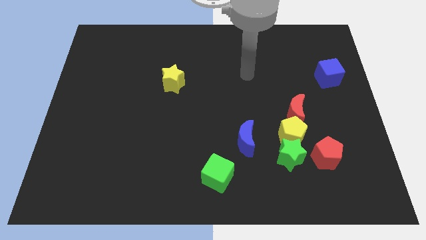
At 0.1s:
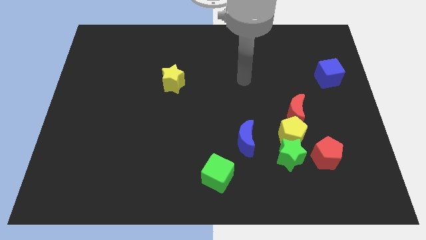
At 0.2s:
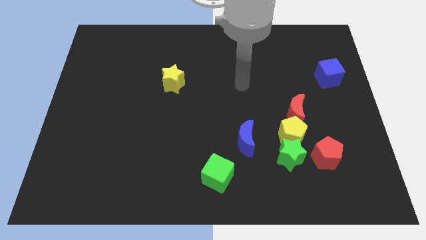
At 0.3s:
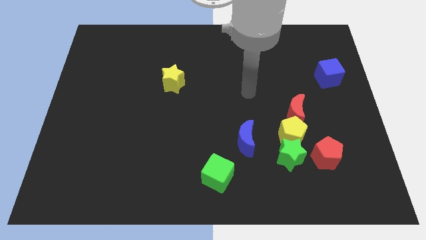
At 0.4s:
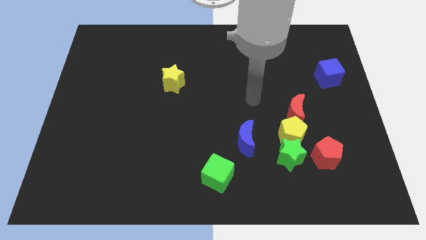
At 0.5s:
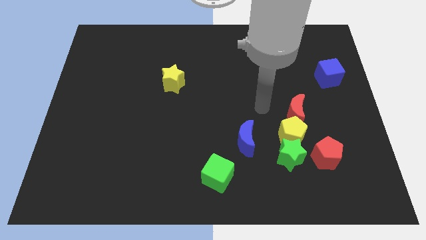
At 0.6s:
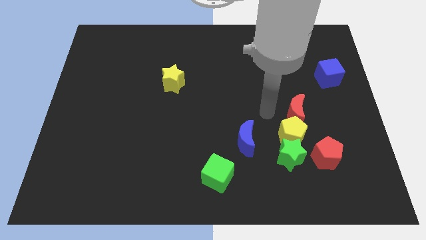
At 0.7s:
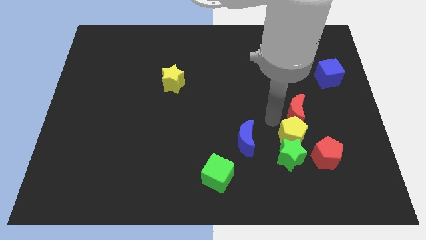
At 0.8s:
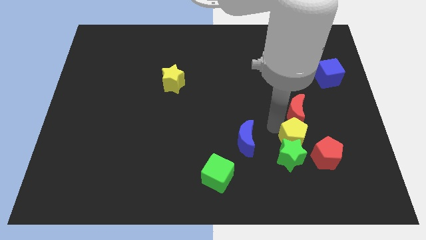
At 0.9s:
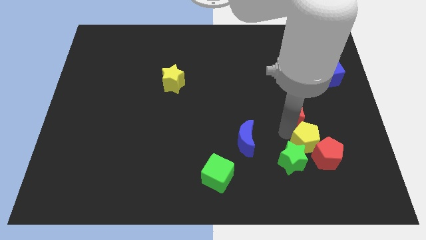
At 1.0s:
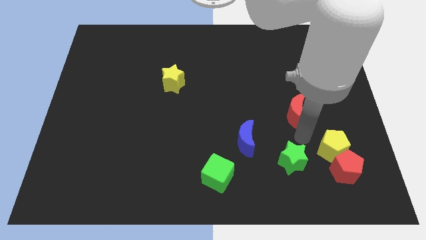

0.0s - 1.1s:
separate the red moon from the yellow pentagon

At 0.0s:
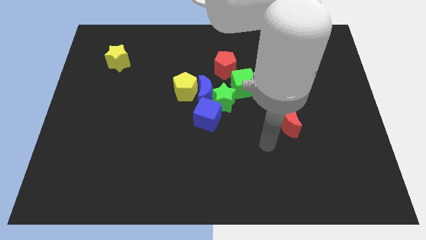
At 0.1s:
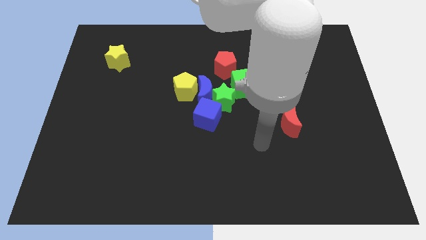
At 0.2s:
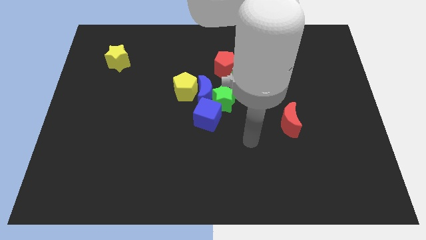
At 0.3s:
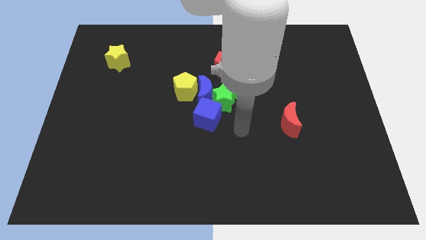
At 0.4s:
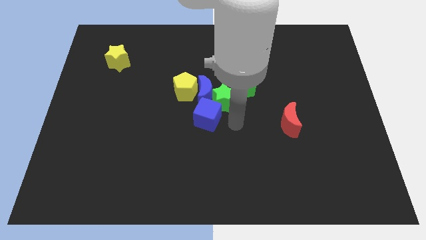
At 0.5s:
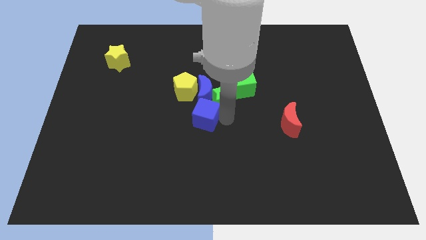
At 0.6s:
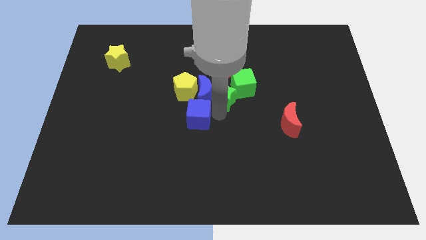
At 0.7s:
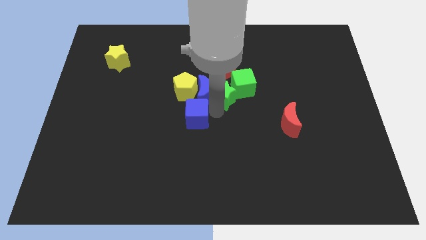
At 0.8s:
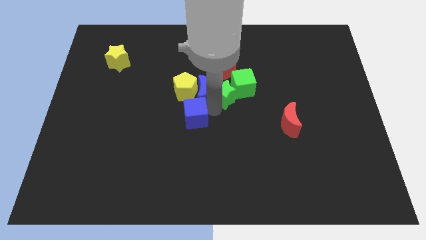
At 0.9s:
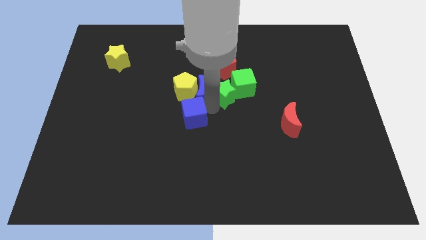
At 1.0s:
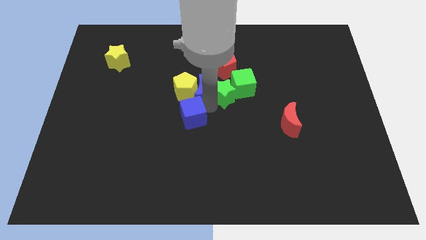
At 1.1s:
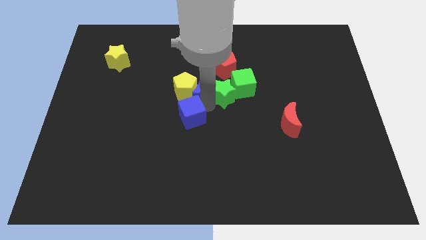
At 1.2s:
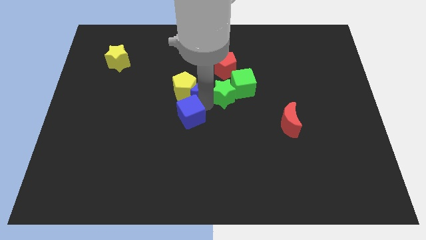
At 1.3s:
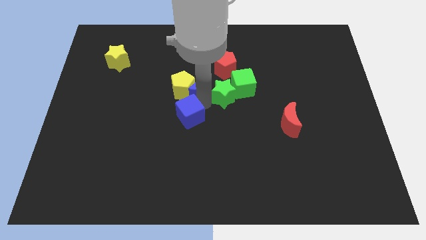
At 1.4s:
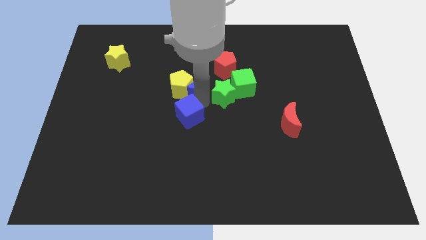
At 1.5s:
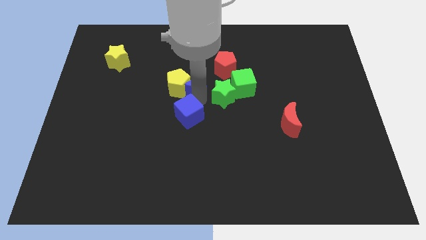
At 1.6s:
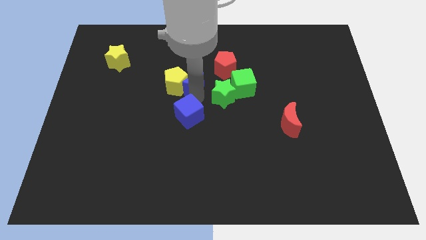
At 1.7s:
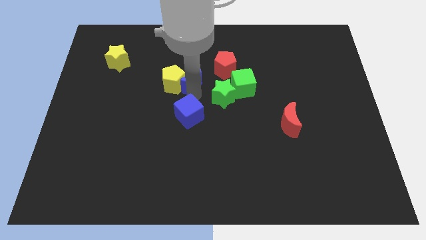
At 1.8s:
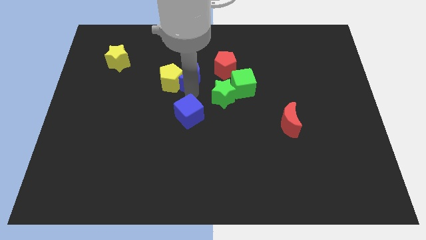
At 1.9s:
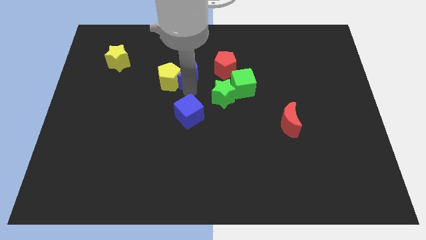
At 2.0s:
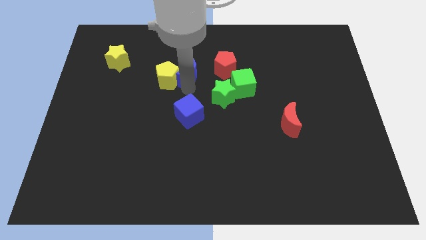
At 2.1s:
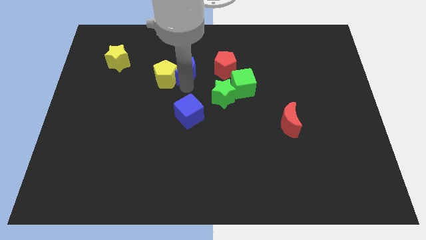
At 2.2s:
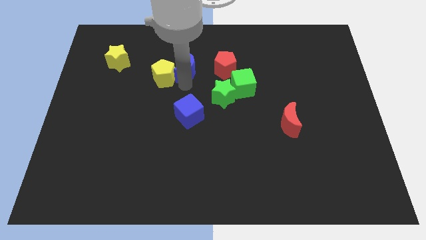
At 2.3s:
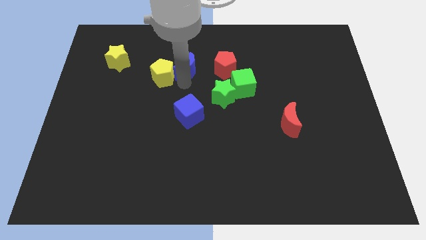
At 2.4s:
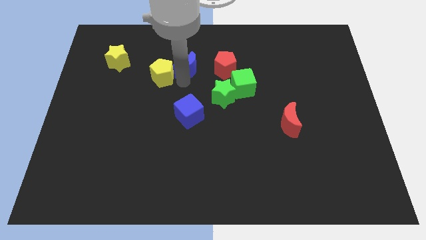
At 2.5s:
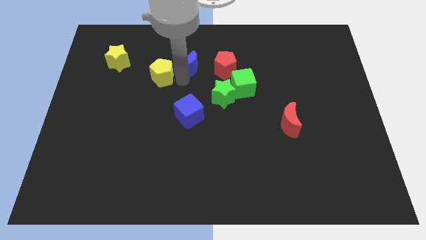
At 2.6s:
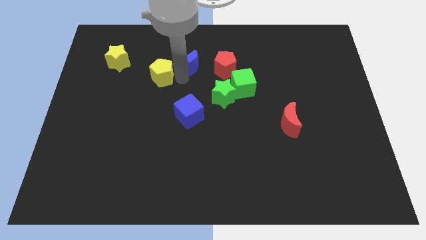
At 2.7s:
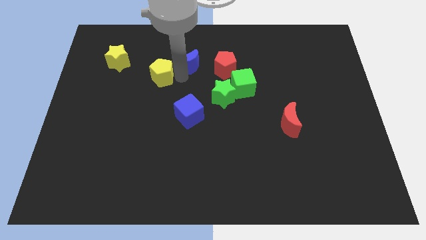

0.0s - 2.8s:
move the blue moon away from the clump

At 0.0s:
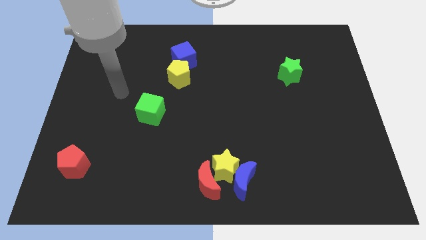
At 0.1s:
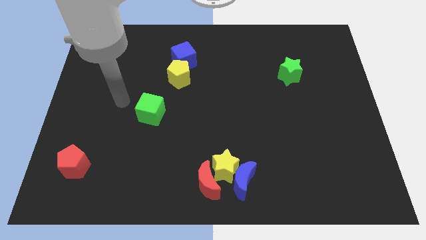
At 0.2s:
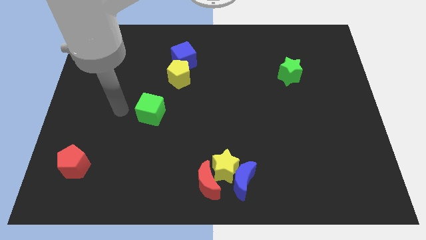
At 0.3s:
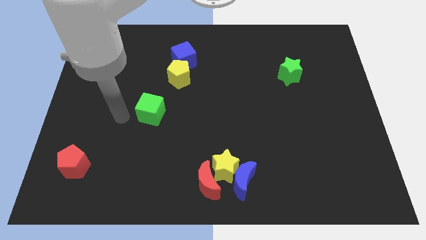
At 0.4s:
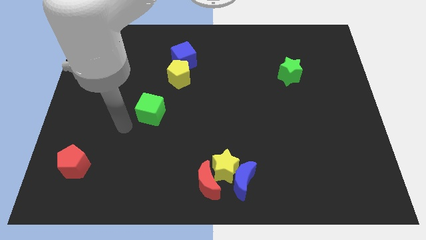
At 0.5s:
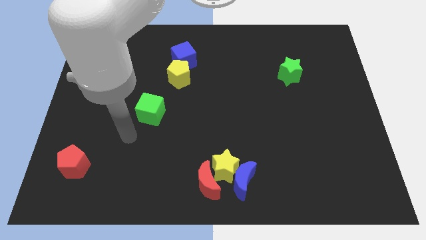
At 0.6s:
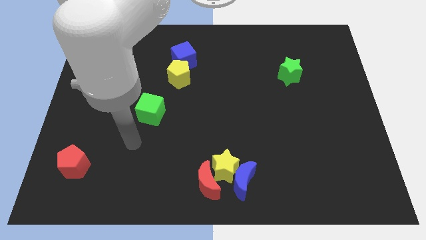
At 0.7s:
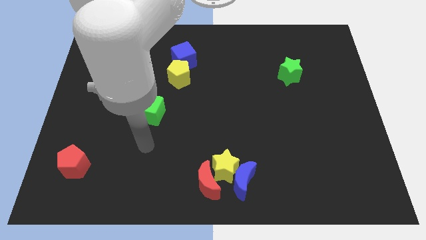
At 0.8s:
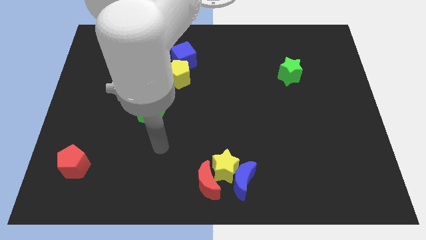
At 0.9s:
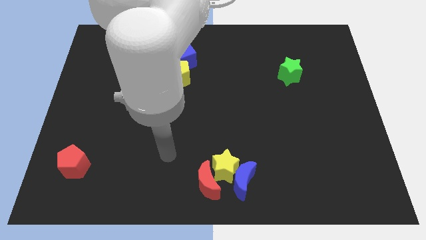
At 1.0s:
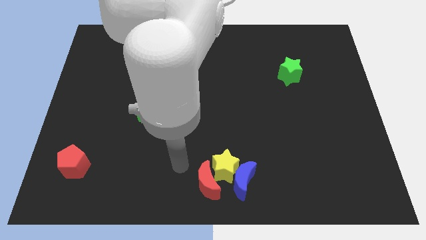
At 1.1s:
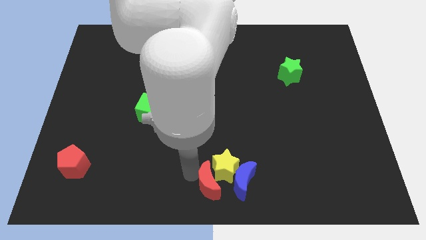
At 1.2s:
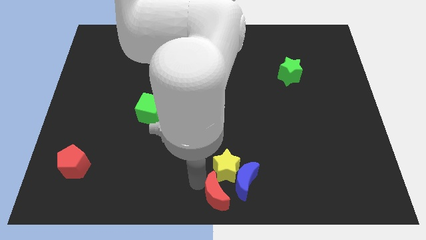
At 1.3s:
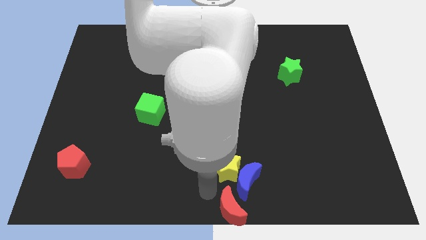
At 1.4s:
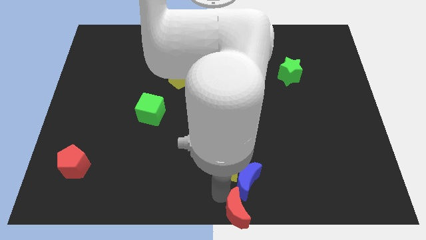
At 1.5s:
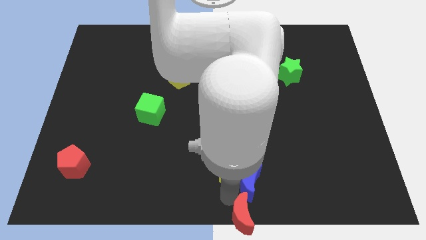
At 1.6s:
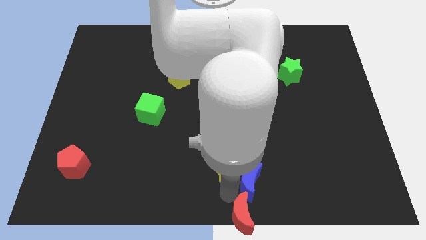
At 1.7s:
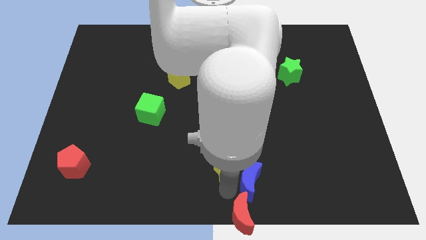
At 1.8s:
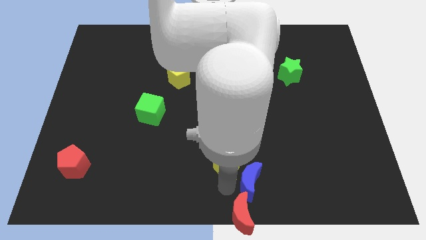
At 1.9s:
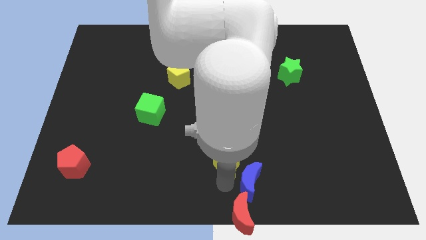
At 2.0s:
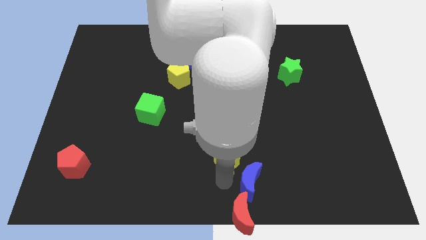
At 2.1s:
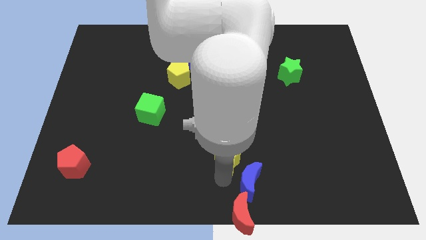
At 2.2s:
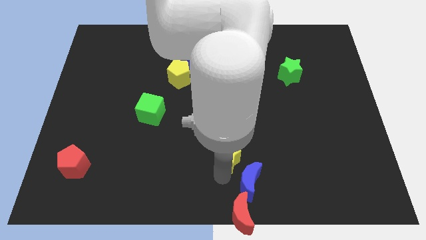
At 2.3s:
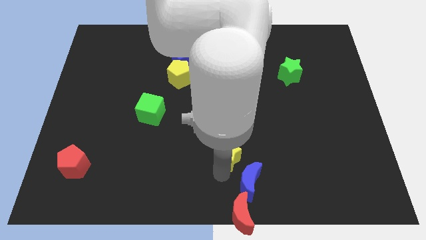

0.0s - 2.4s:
pull the yellow star apart from the blue moon and red moon

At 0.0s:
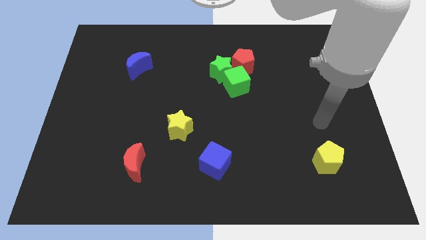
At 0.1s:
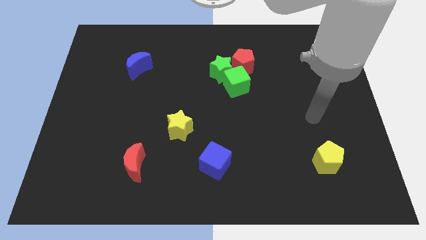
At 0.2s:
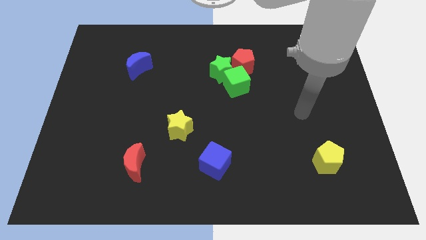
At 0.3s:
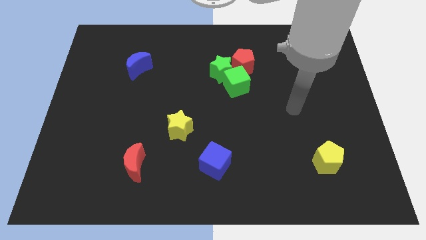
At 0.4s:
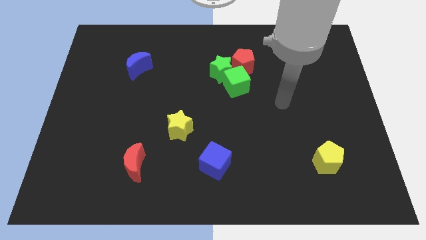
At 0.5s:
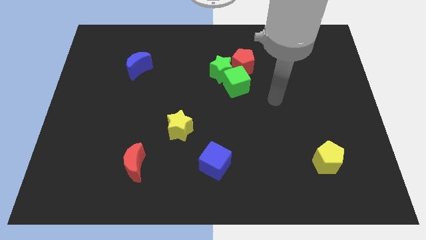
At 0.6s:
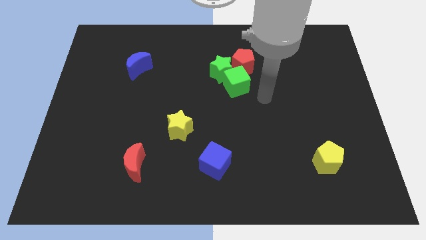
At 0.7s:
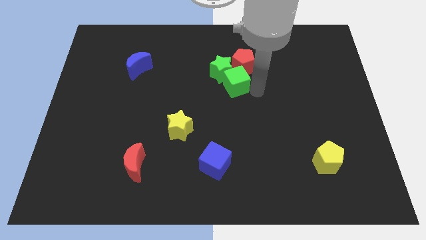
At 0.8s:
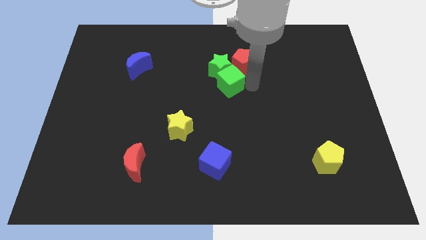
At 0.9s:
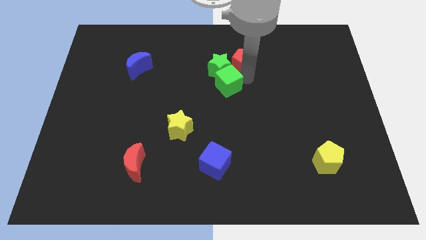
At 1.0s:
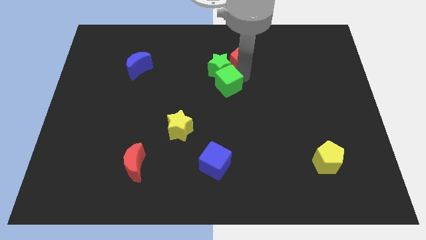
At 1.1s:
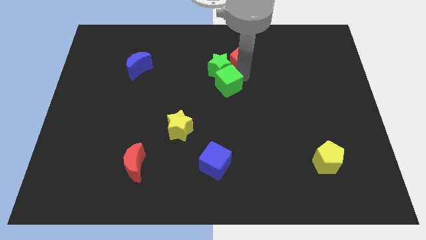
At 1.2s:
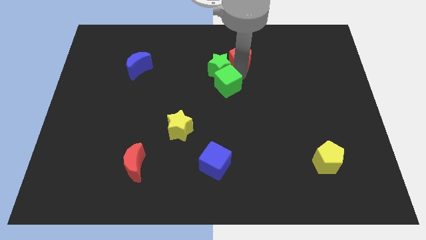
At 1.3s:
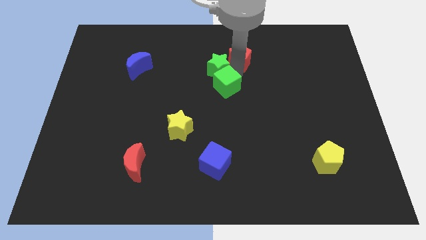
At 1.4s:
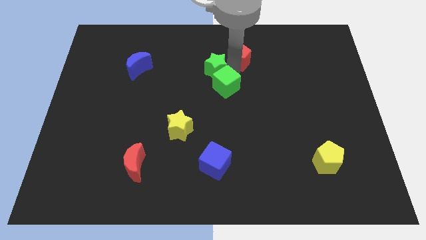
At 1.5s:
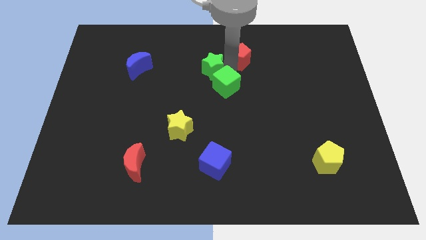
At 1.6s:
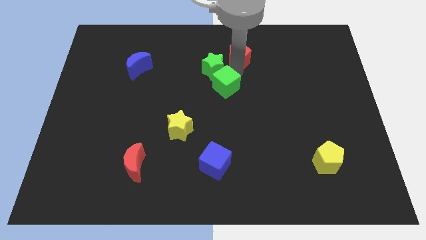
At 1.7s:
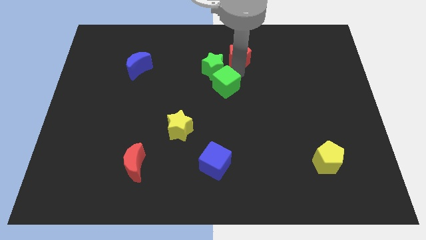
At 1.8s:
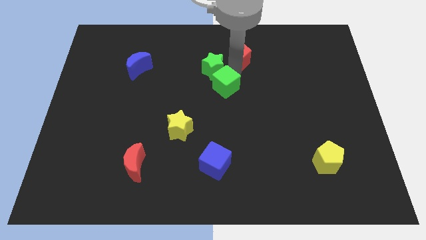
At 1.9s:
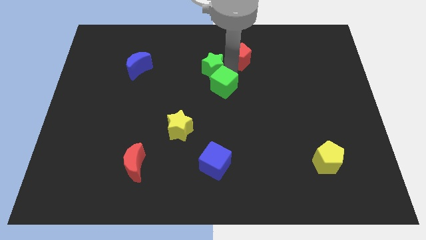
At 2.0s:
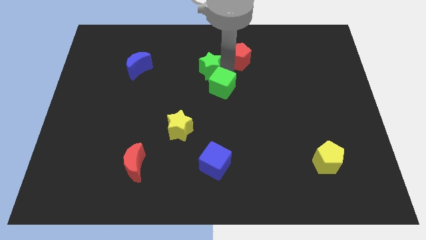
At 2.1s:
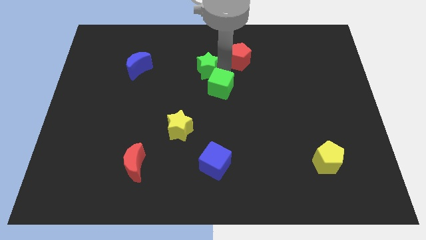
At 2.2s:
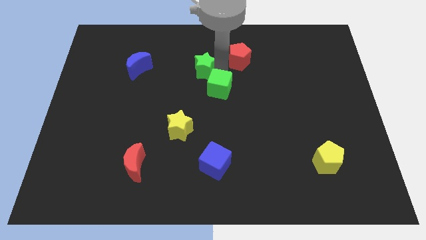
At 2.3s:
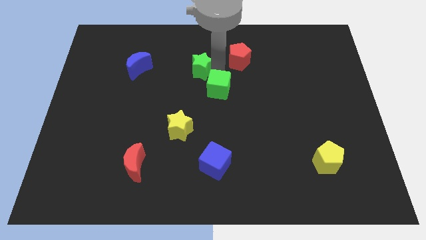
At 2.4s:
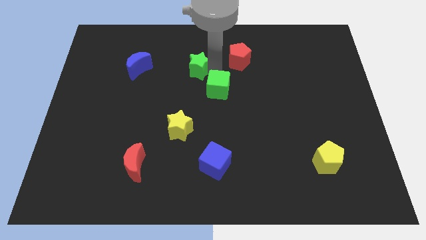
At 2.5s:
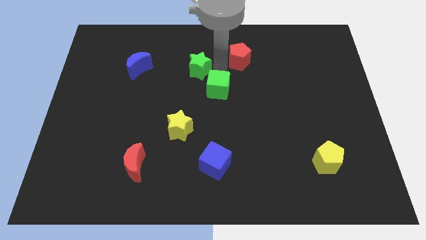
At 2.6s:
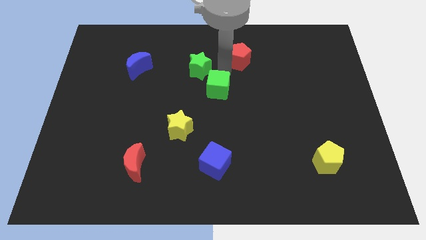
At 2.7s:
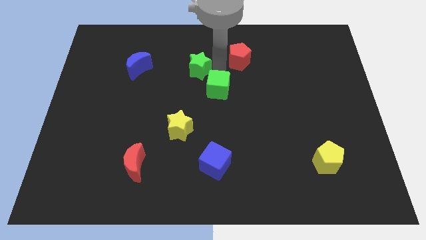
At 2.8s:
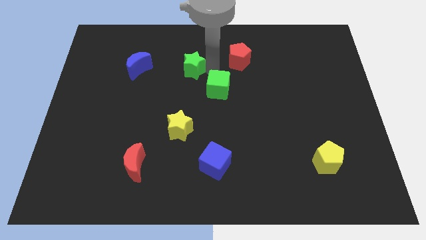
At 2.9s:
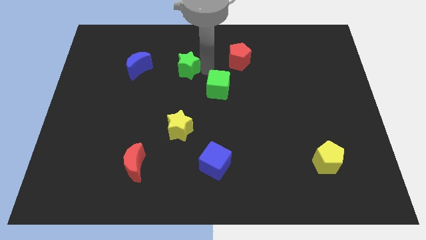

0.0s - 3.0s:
move the green star away from the green cube and red pentagon

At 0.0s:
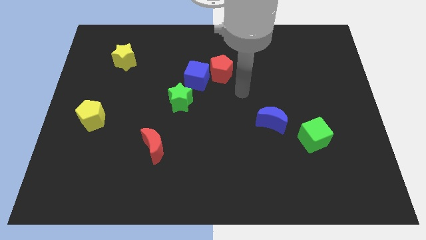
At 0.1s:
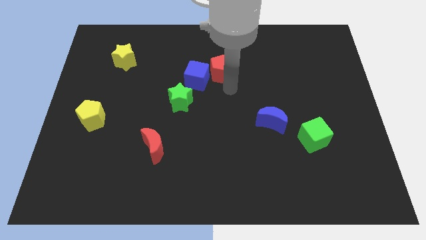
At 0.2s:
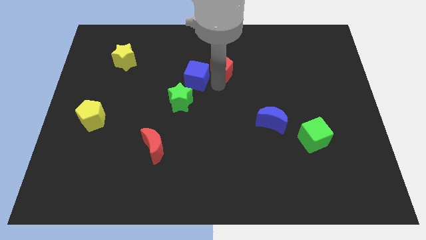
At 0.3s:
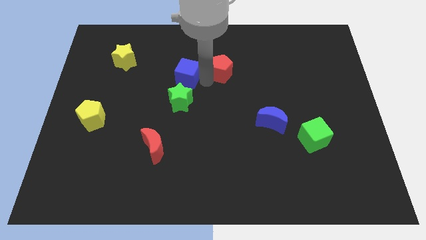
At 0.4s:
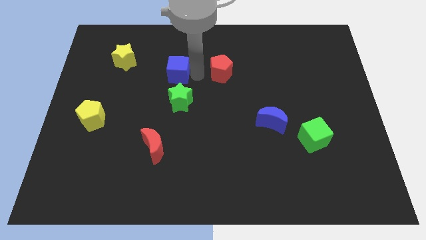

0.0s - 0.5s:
move the red pentagon away from the blue cube
